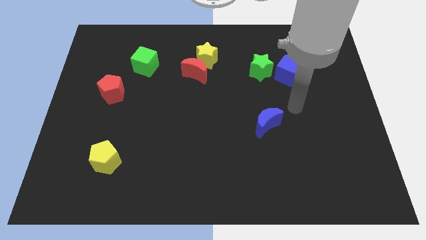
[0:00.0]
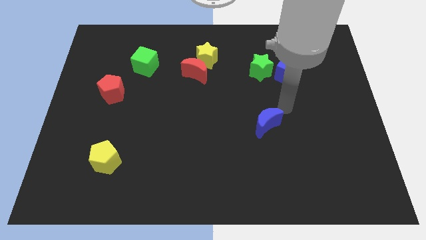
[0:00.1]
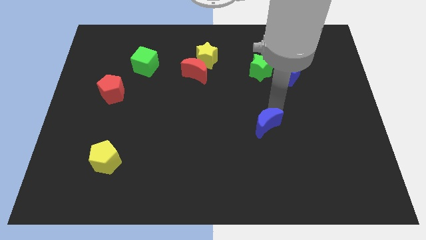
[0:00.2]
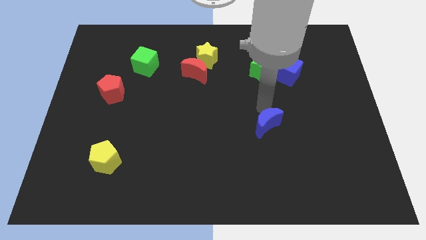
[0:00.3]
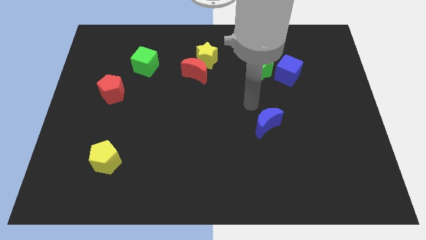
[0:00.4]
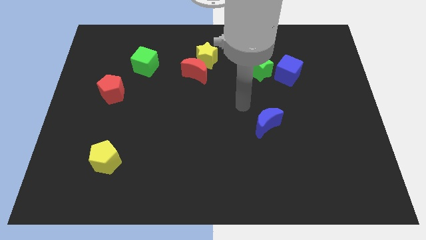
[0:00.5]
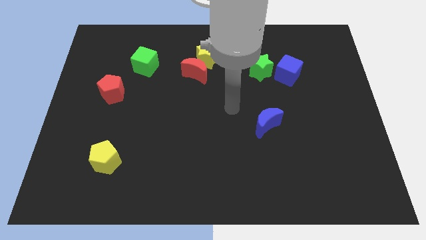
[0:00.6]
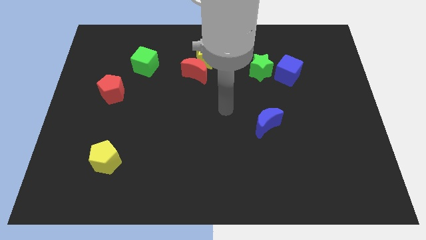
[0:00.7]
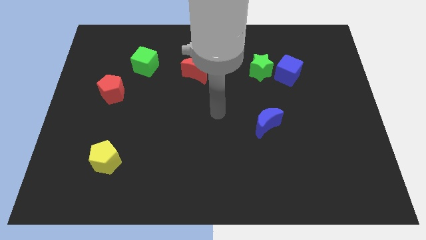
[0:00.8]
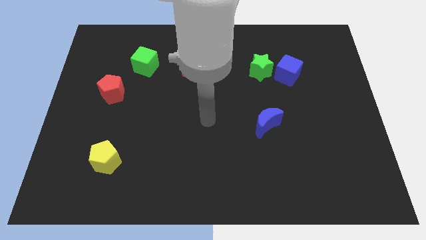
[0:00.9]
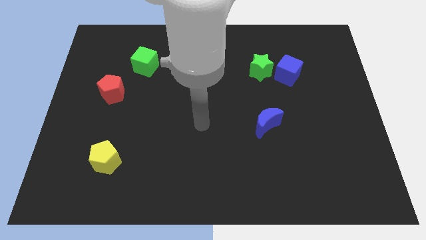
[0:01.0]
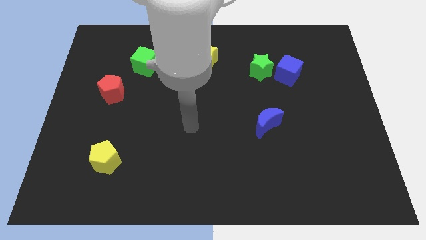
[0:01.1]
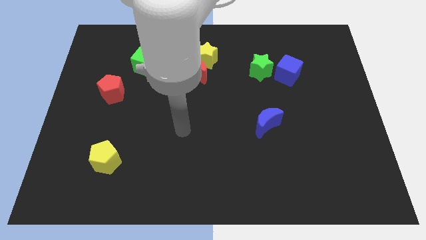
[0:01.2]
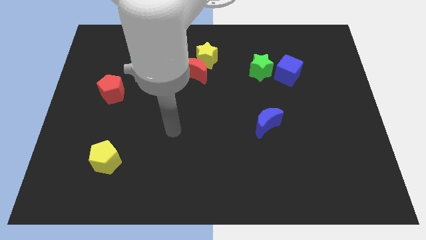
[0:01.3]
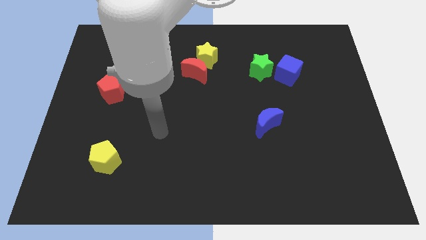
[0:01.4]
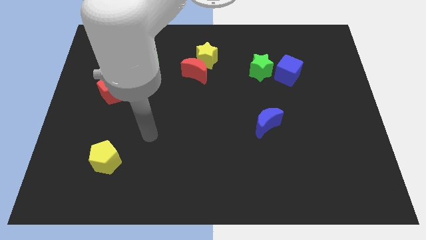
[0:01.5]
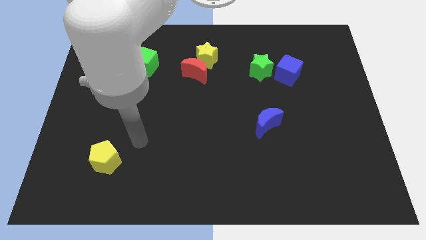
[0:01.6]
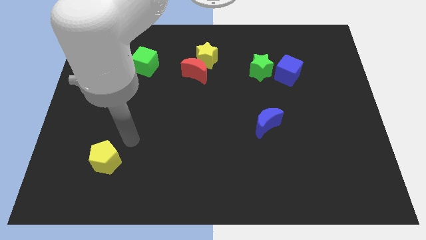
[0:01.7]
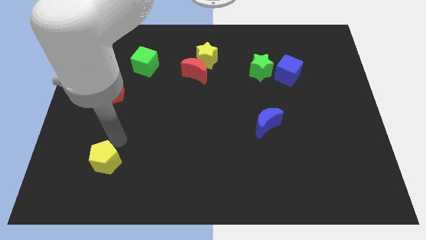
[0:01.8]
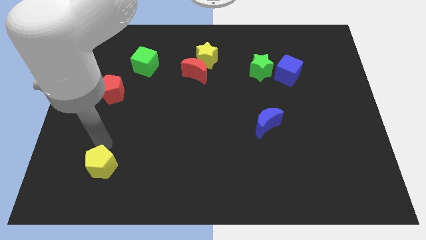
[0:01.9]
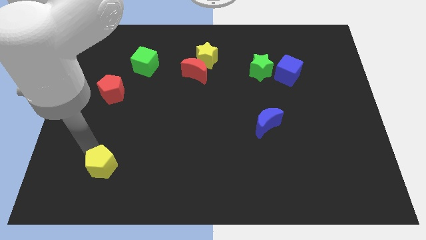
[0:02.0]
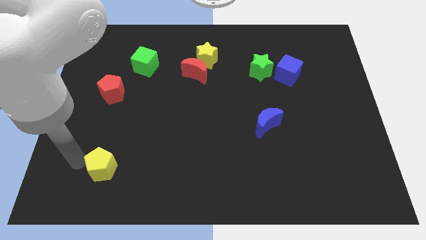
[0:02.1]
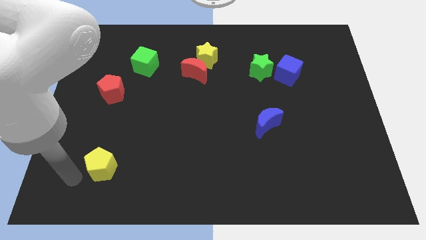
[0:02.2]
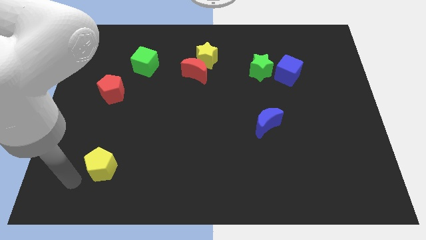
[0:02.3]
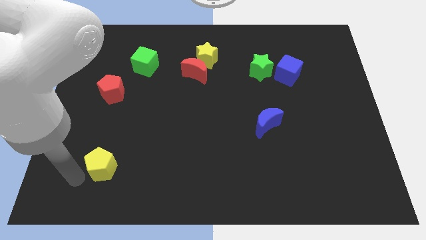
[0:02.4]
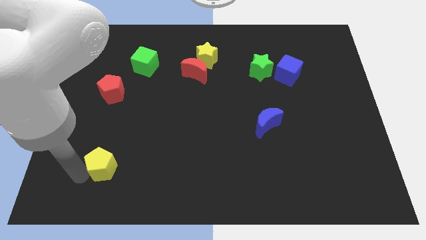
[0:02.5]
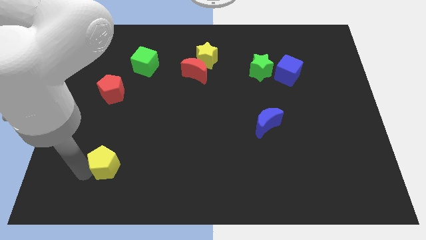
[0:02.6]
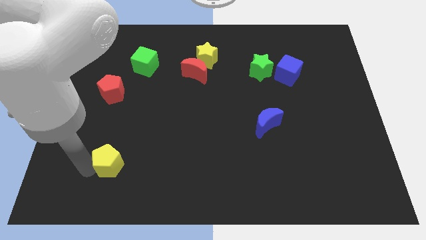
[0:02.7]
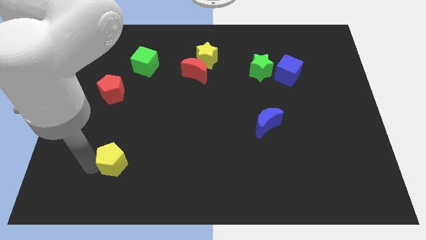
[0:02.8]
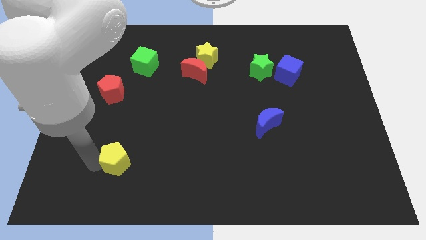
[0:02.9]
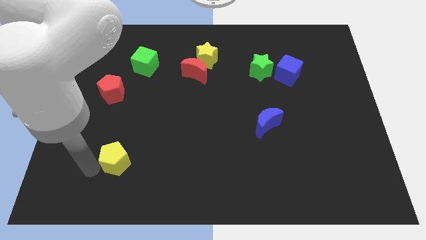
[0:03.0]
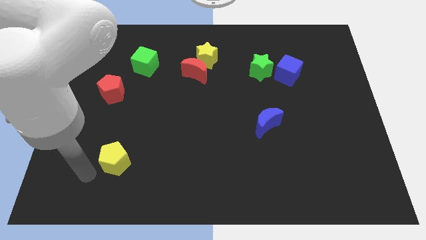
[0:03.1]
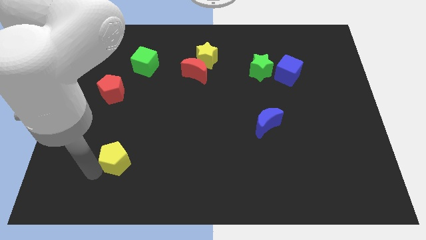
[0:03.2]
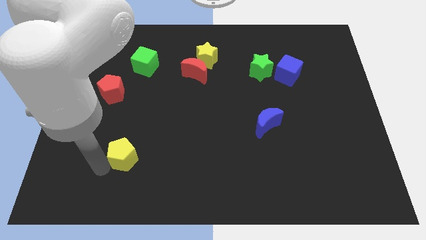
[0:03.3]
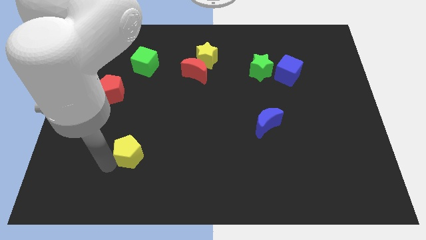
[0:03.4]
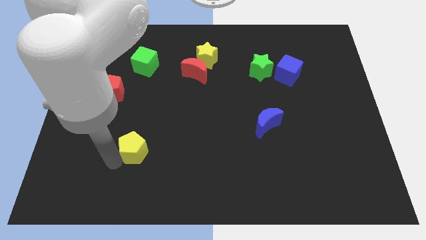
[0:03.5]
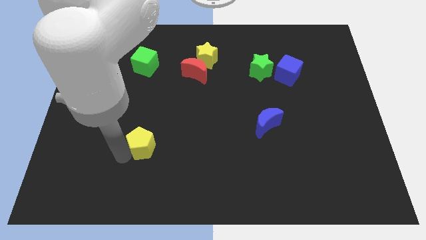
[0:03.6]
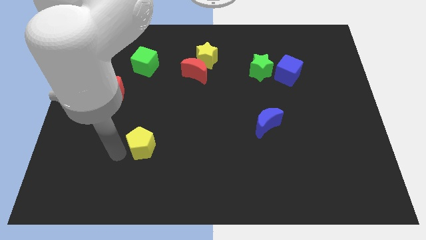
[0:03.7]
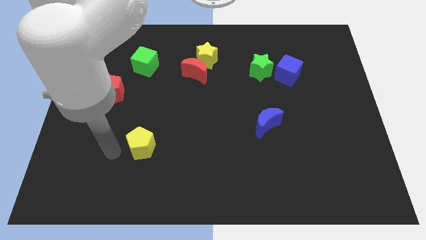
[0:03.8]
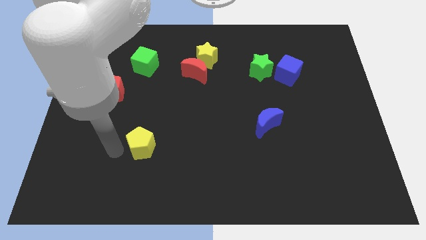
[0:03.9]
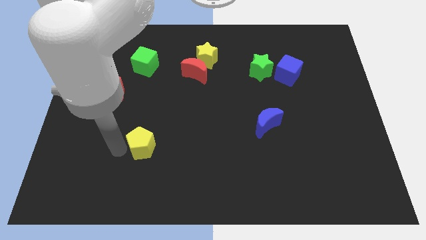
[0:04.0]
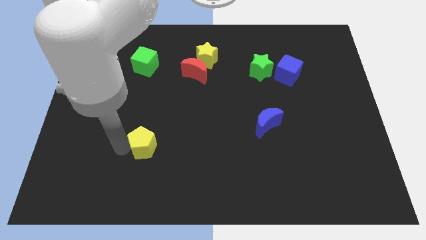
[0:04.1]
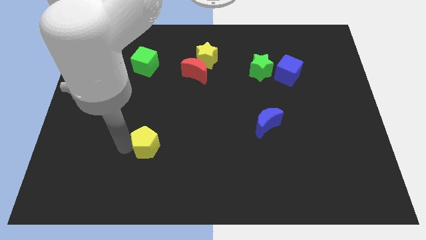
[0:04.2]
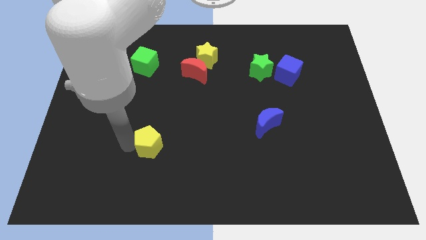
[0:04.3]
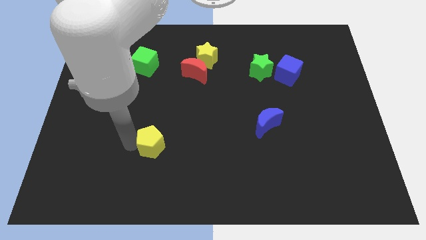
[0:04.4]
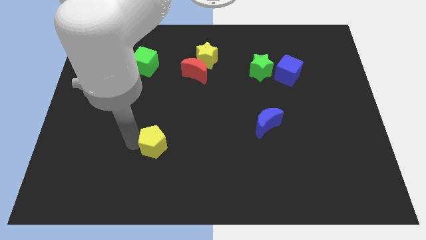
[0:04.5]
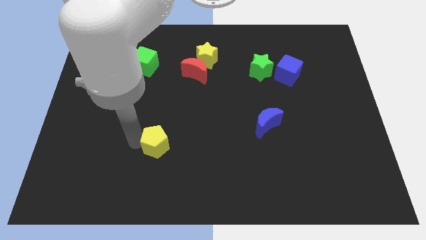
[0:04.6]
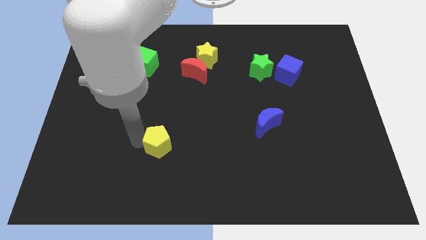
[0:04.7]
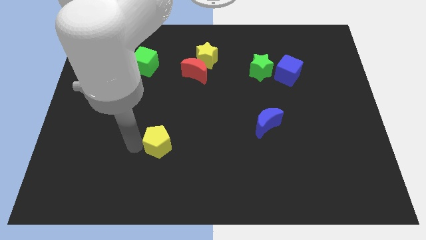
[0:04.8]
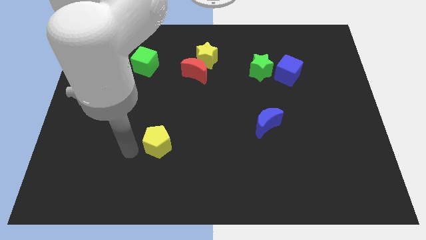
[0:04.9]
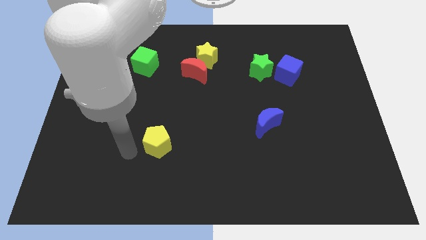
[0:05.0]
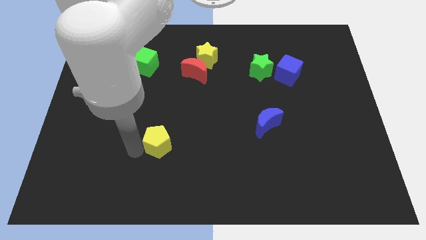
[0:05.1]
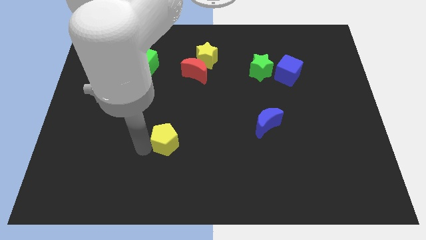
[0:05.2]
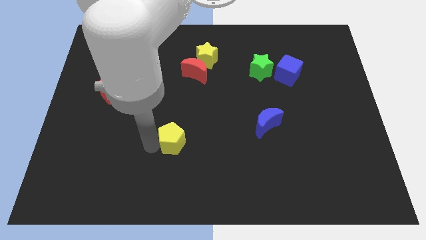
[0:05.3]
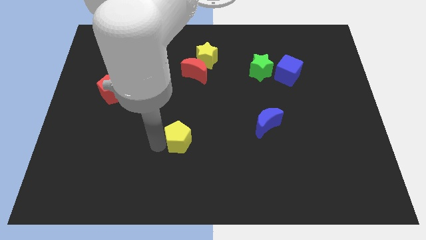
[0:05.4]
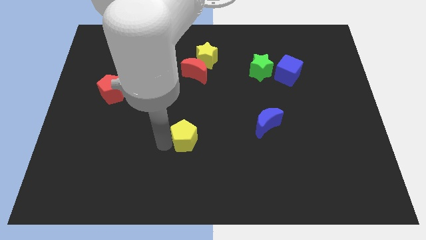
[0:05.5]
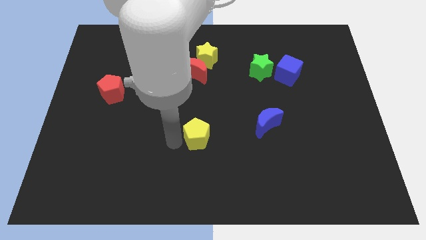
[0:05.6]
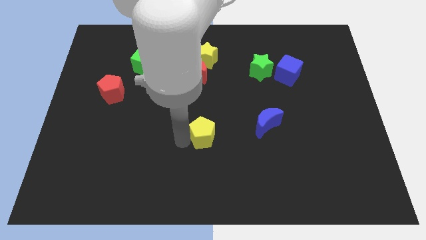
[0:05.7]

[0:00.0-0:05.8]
slide the yellow pentagon to the left of the blue moon

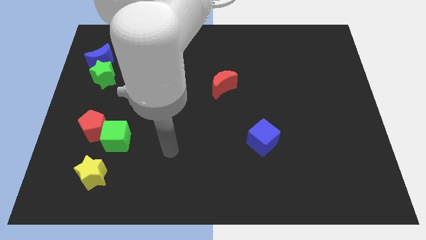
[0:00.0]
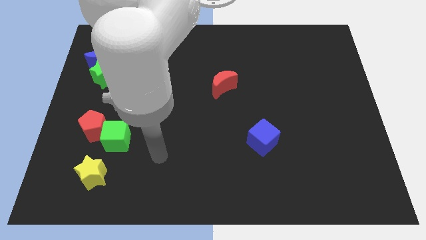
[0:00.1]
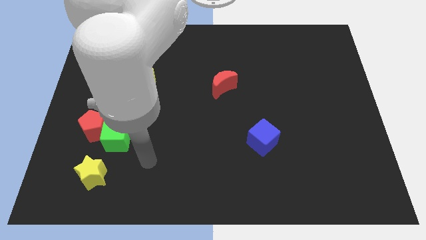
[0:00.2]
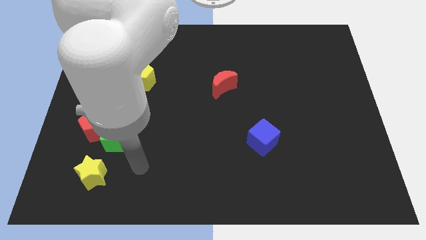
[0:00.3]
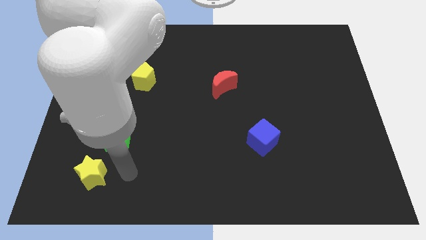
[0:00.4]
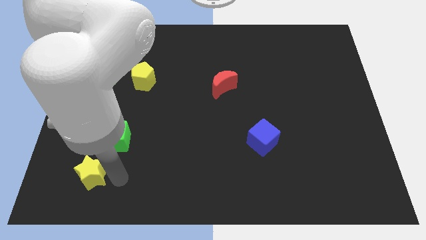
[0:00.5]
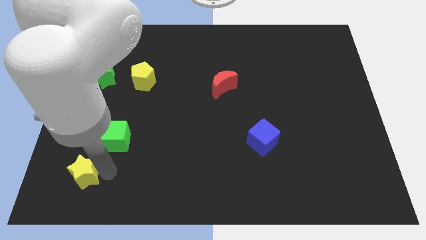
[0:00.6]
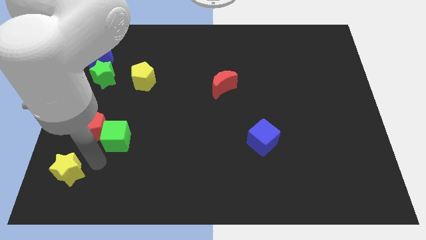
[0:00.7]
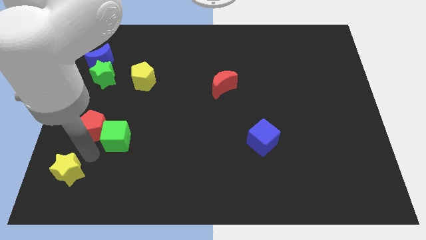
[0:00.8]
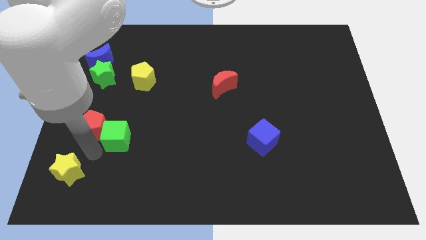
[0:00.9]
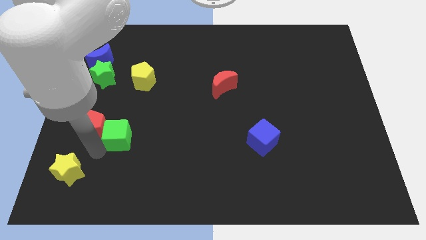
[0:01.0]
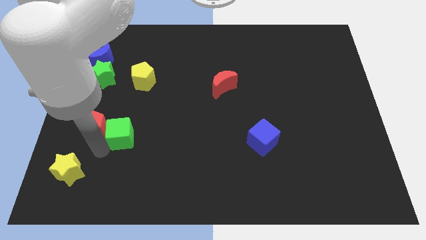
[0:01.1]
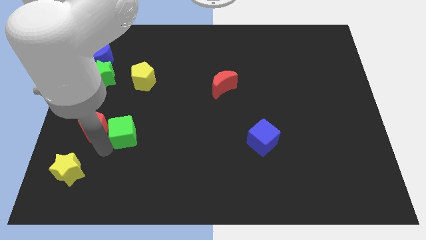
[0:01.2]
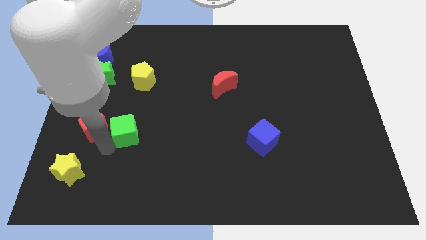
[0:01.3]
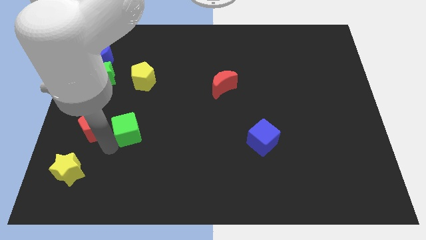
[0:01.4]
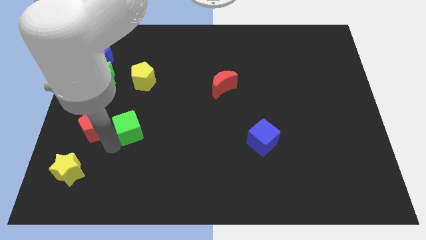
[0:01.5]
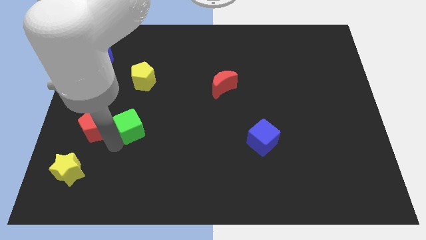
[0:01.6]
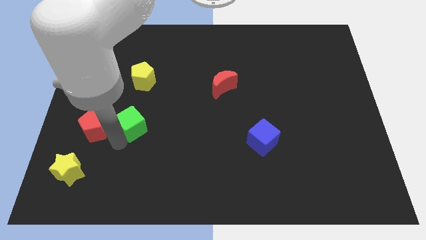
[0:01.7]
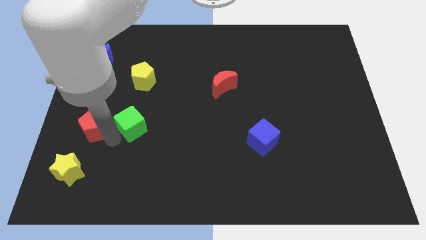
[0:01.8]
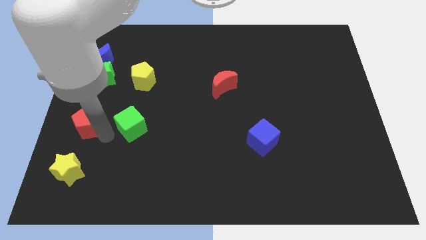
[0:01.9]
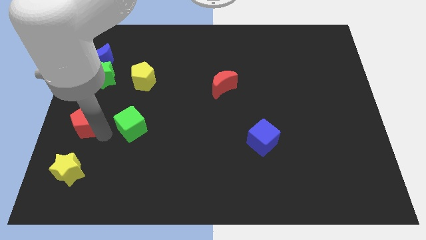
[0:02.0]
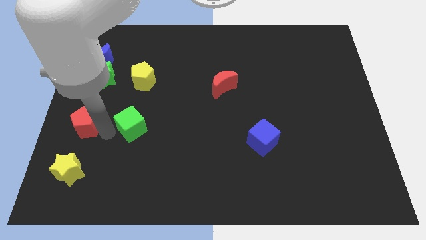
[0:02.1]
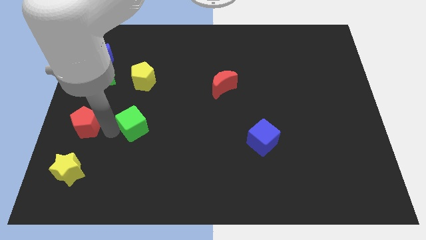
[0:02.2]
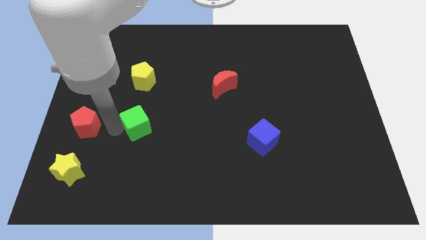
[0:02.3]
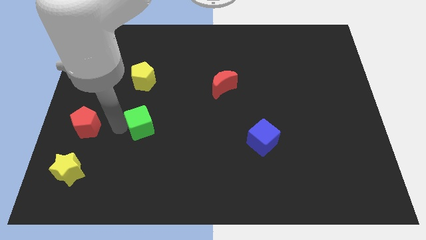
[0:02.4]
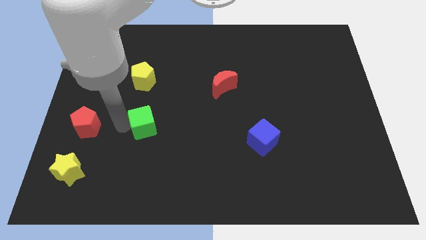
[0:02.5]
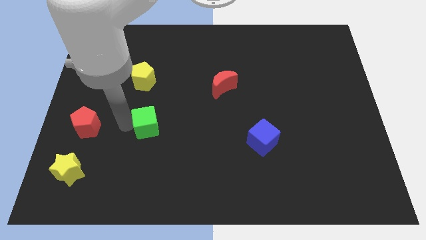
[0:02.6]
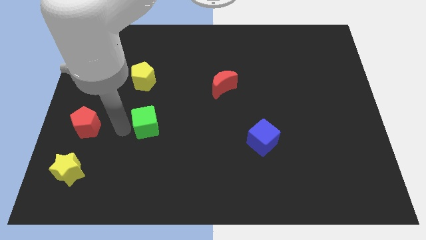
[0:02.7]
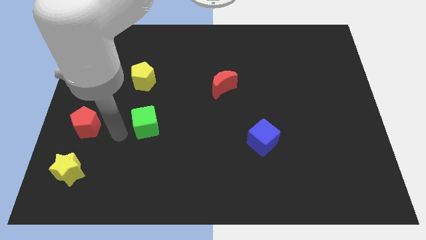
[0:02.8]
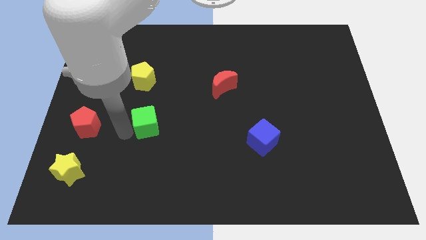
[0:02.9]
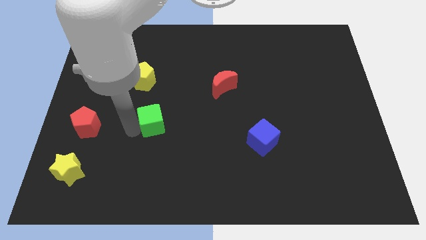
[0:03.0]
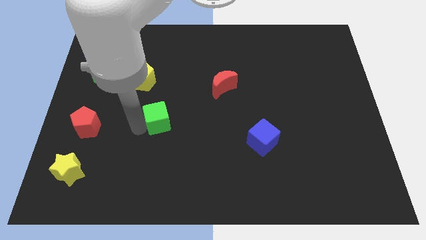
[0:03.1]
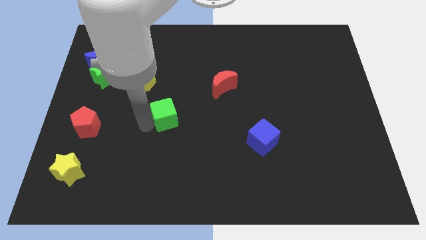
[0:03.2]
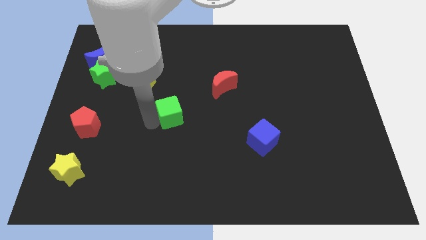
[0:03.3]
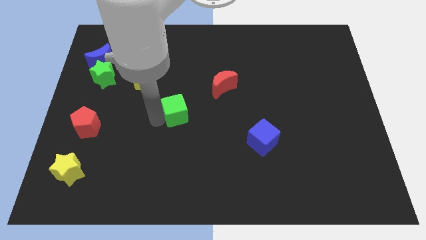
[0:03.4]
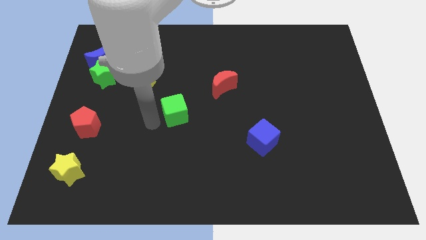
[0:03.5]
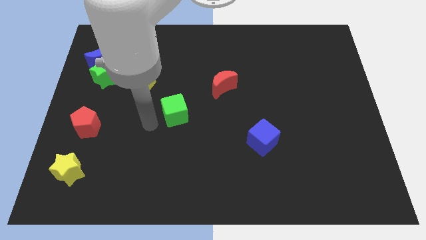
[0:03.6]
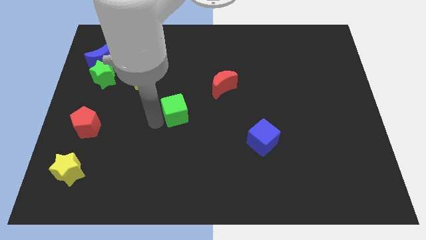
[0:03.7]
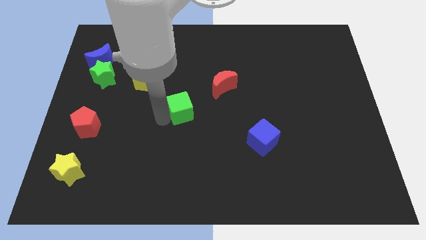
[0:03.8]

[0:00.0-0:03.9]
slide the green cube to the bottom left side of the red moon
